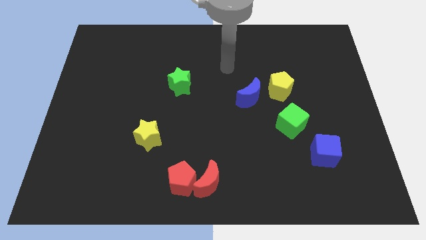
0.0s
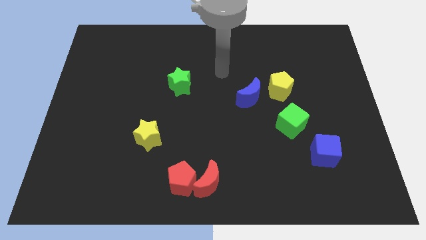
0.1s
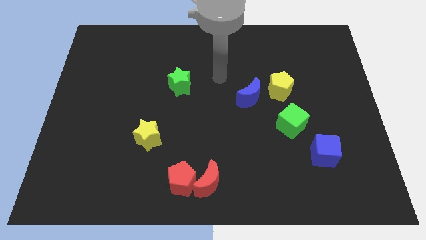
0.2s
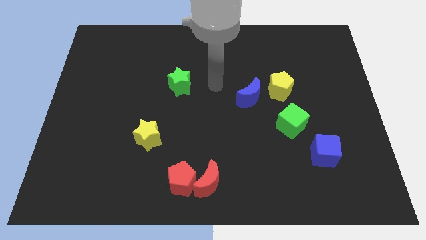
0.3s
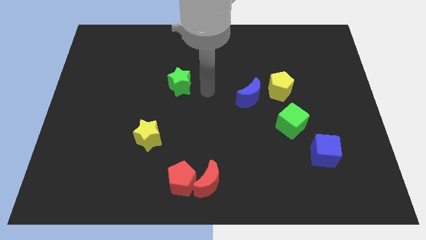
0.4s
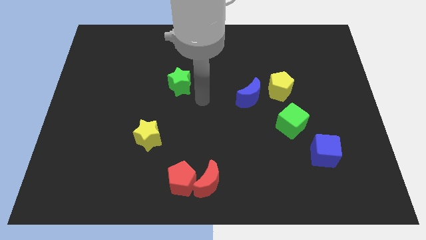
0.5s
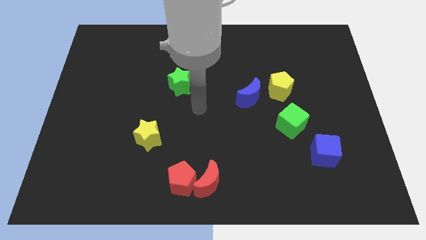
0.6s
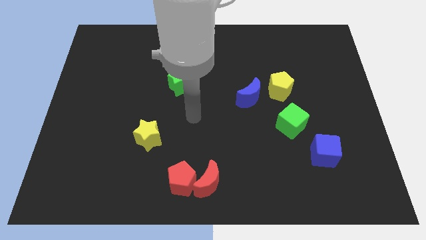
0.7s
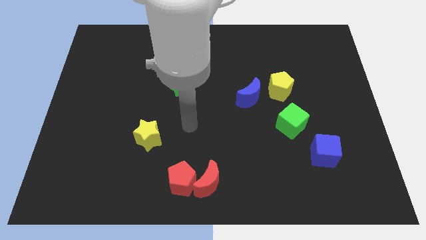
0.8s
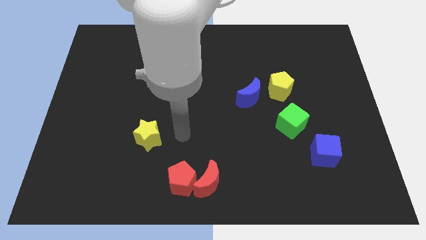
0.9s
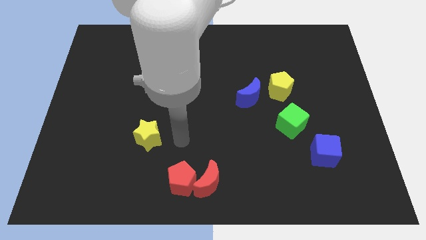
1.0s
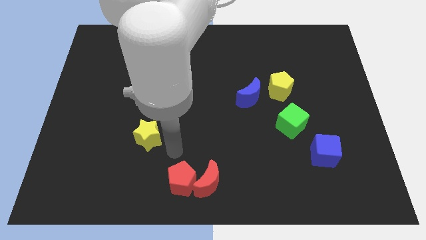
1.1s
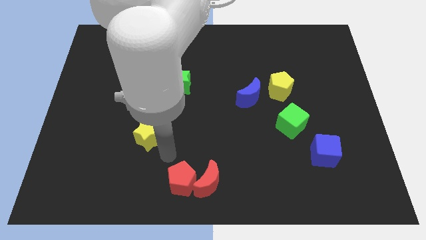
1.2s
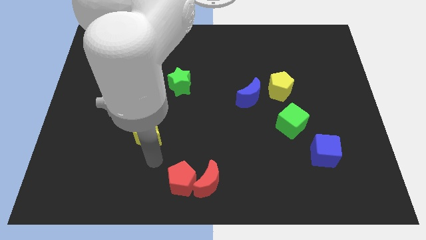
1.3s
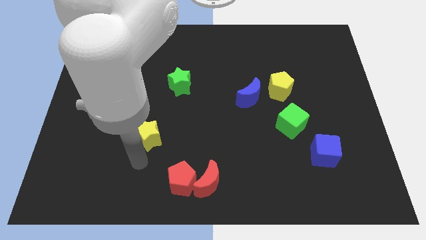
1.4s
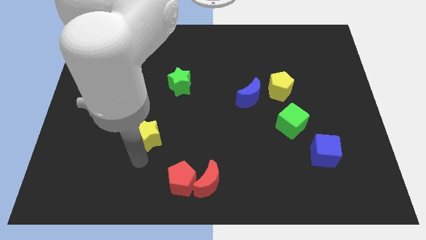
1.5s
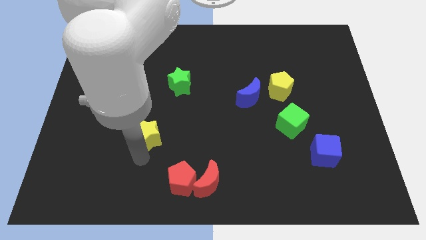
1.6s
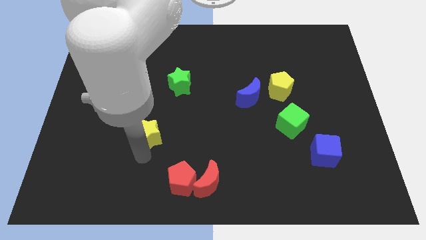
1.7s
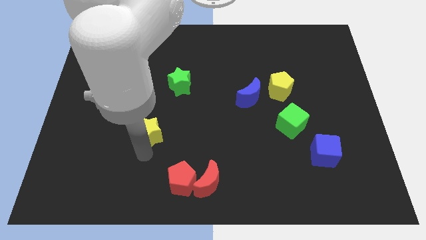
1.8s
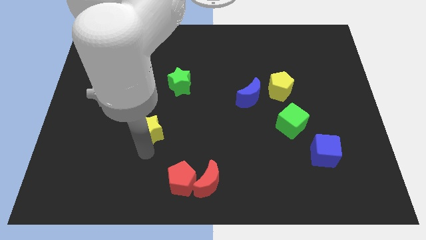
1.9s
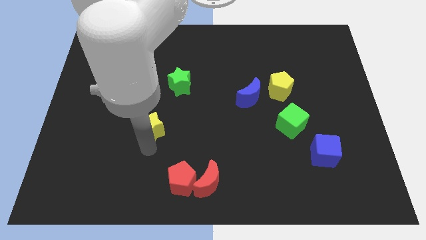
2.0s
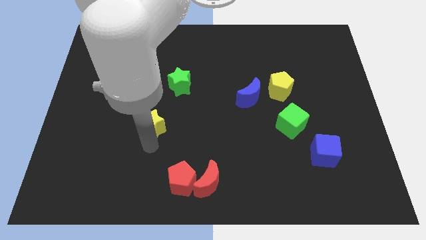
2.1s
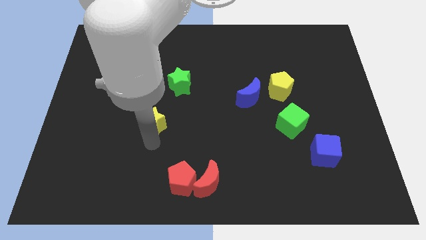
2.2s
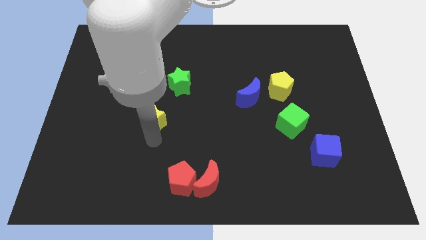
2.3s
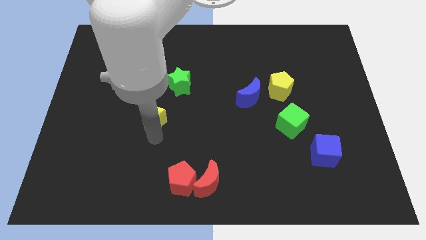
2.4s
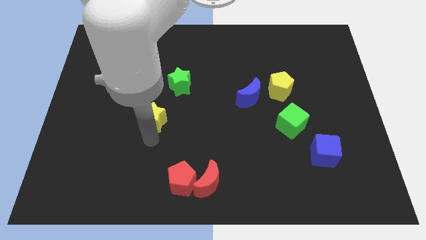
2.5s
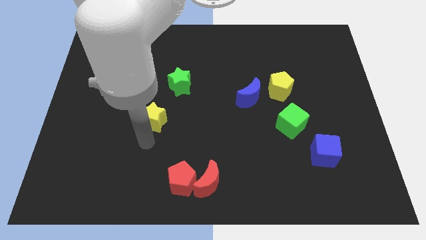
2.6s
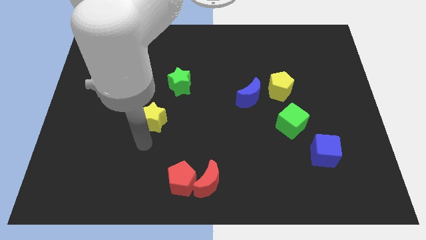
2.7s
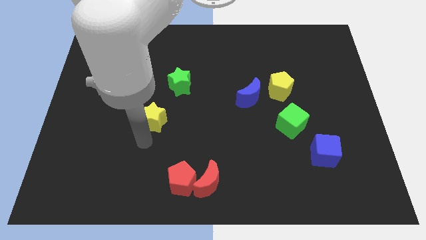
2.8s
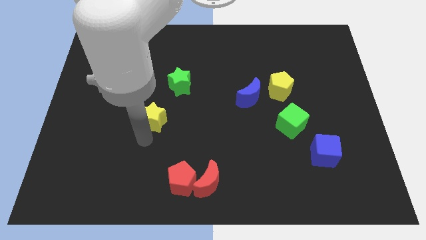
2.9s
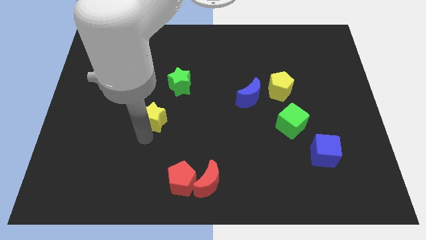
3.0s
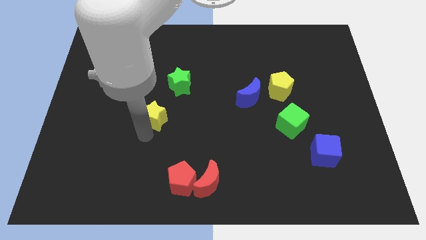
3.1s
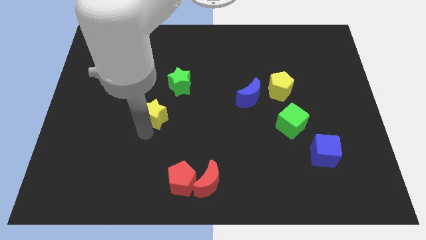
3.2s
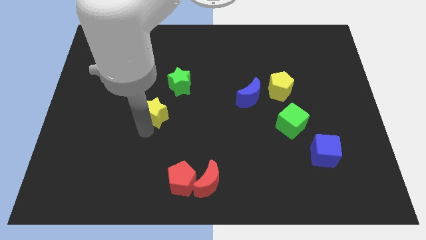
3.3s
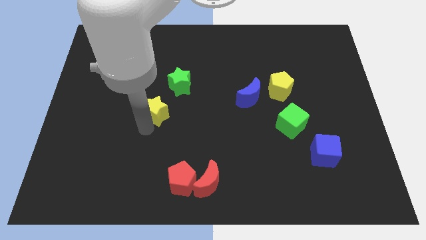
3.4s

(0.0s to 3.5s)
slightly slide the yellow star upwards

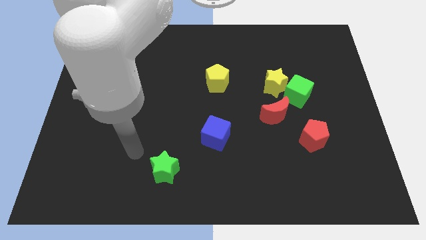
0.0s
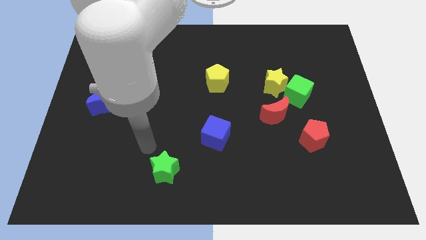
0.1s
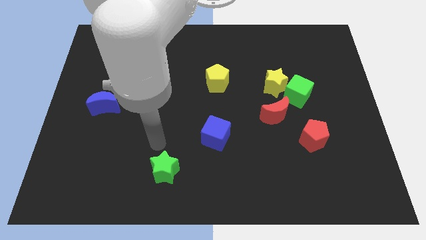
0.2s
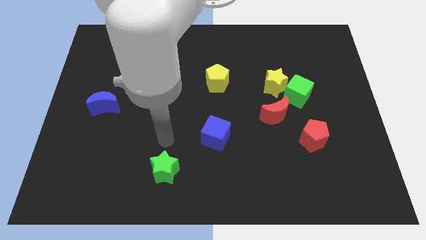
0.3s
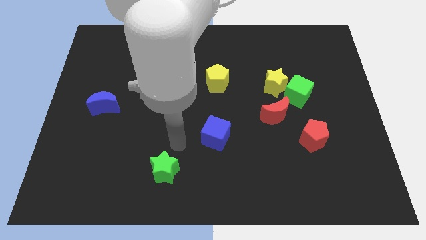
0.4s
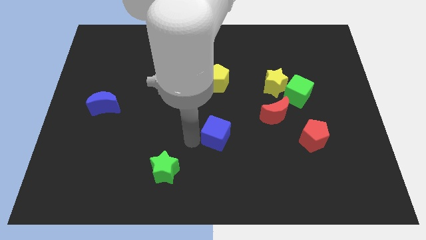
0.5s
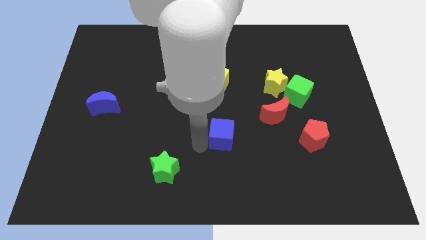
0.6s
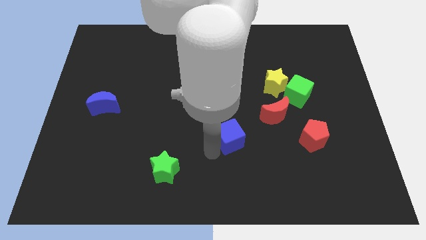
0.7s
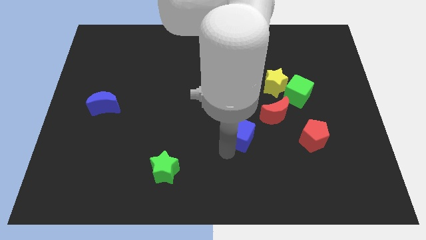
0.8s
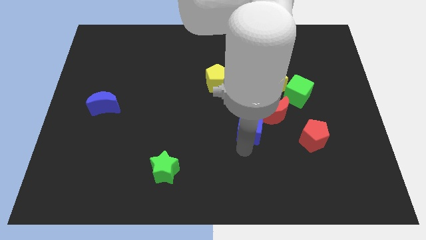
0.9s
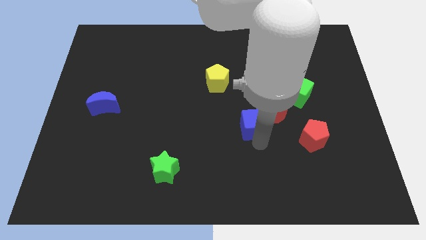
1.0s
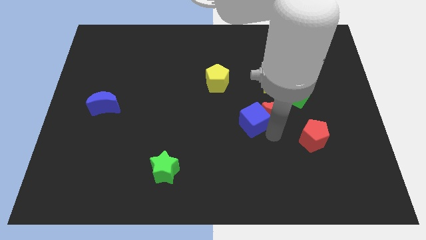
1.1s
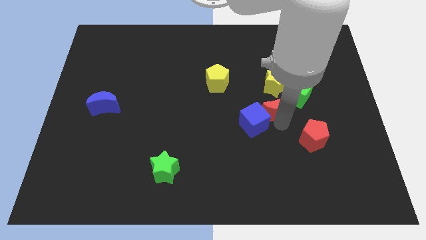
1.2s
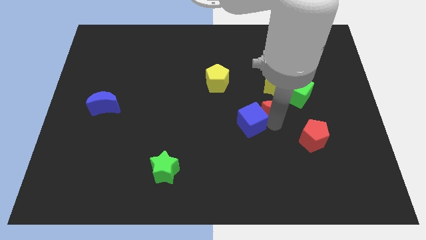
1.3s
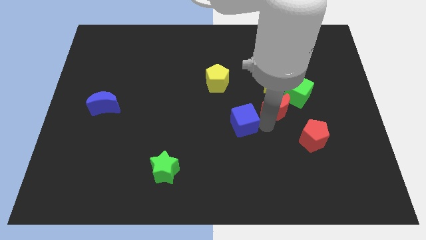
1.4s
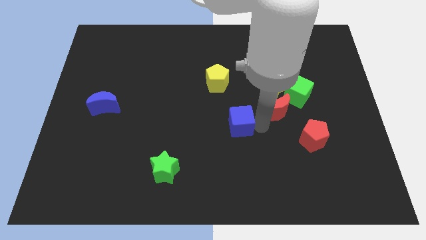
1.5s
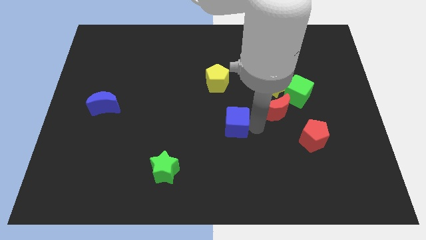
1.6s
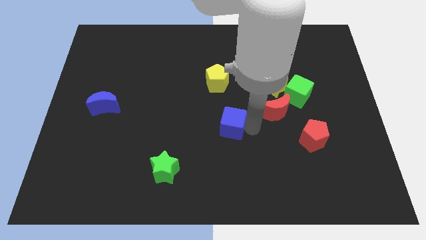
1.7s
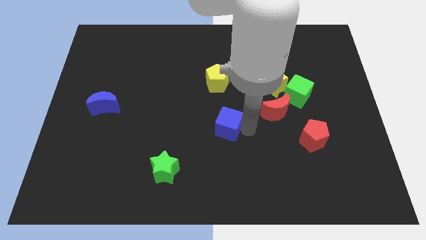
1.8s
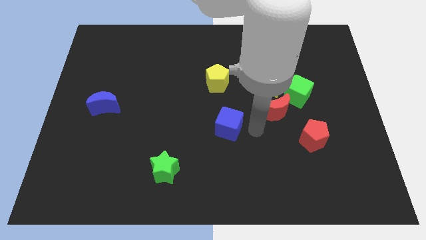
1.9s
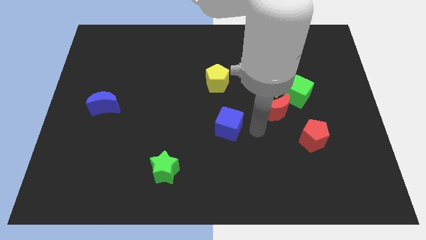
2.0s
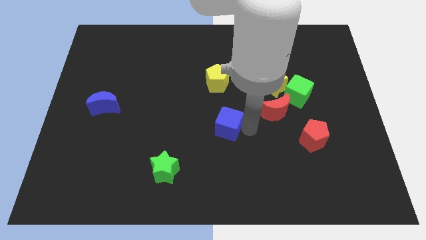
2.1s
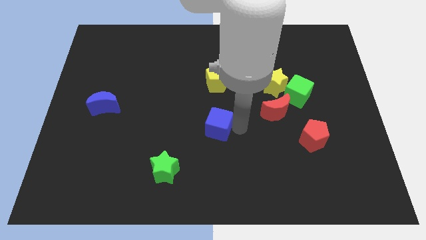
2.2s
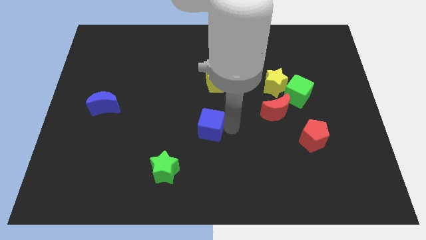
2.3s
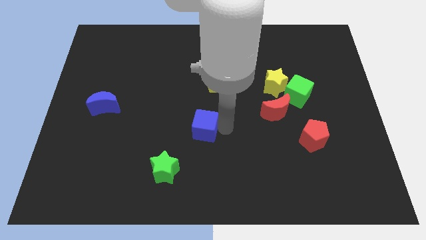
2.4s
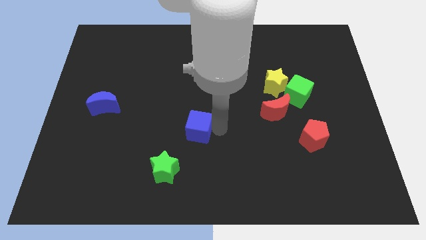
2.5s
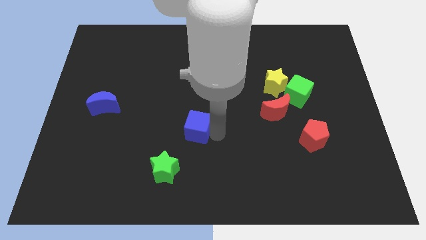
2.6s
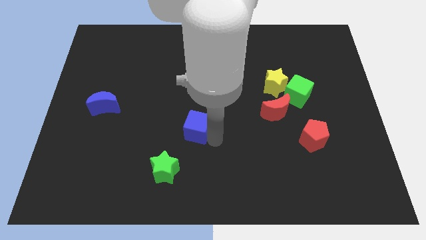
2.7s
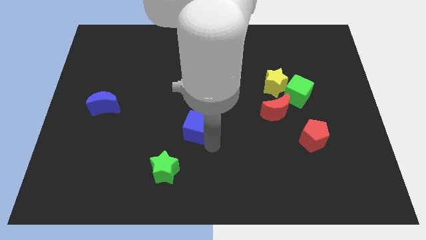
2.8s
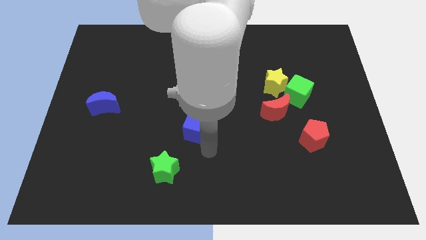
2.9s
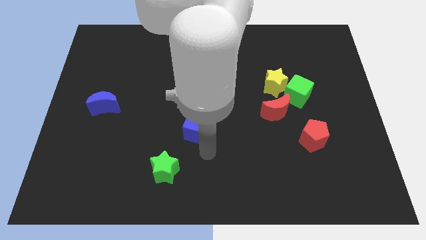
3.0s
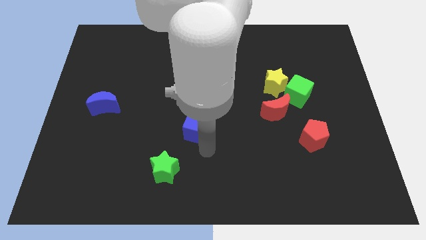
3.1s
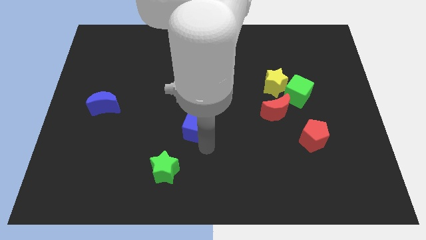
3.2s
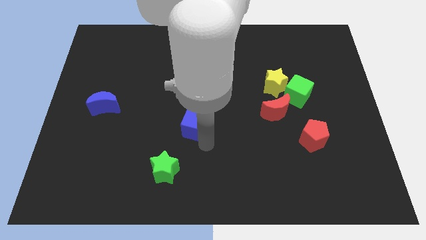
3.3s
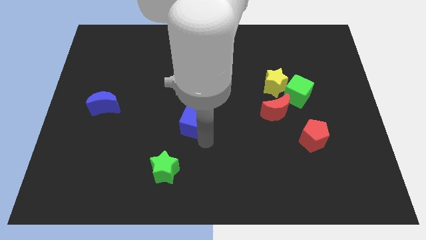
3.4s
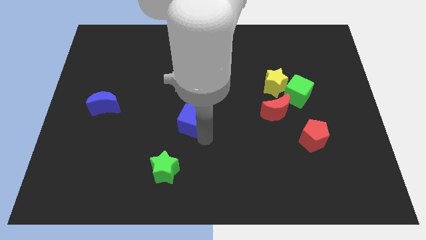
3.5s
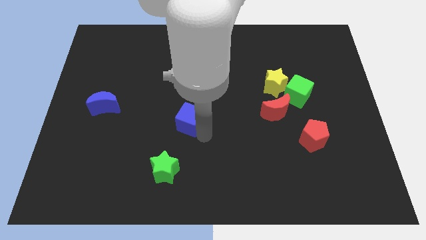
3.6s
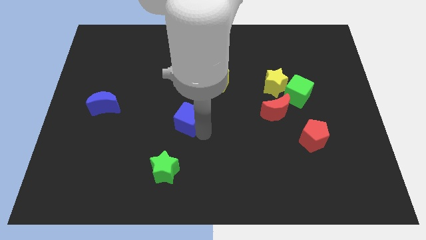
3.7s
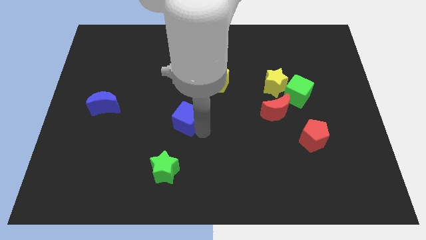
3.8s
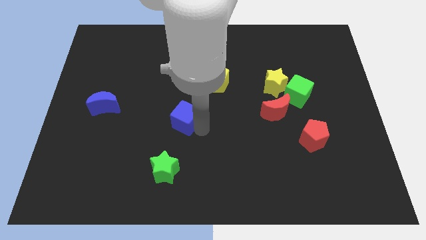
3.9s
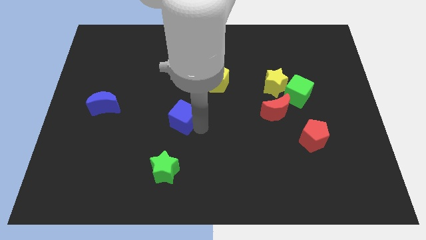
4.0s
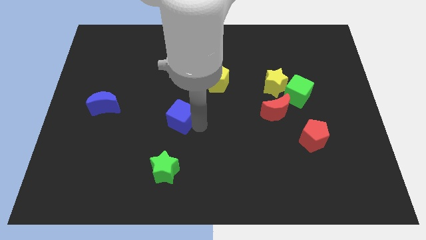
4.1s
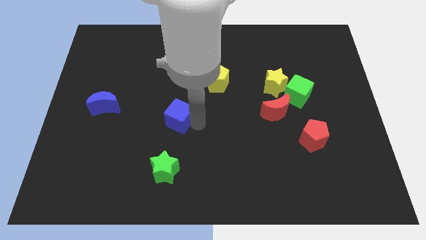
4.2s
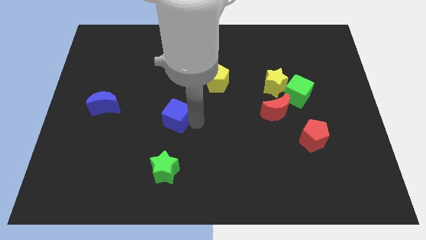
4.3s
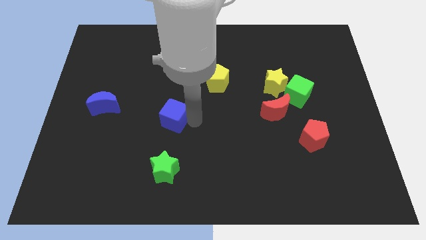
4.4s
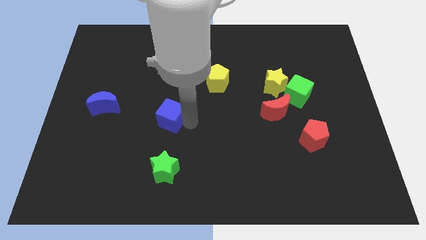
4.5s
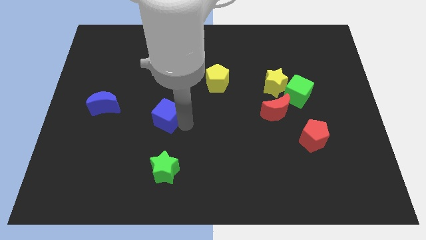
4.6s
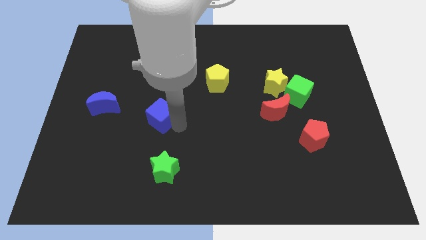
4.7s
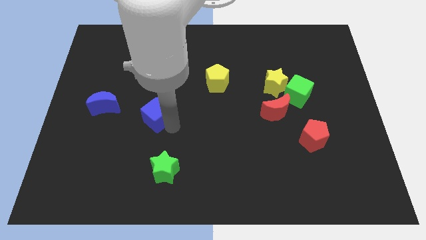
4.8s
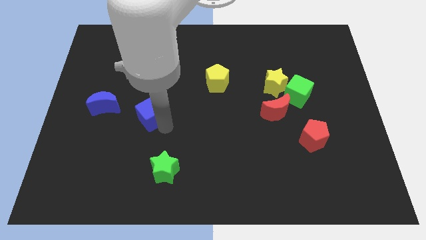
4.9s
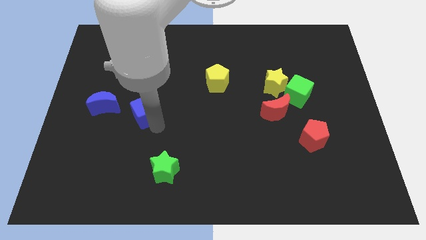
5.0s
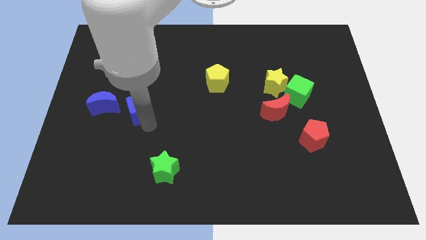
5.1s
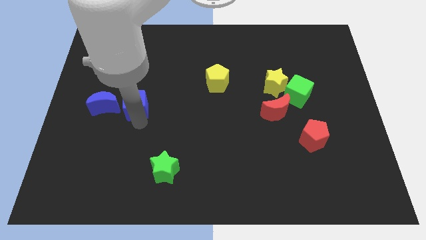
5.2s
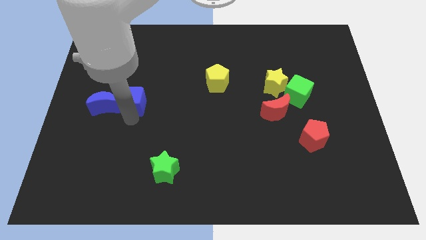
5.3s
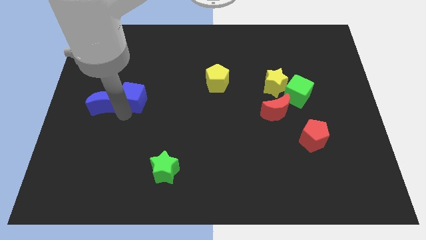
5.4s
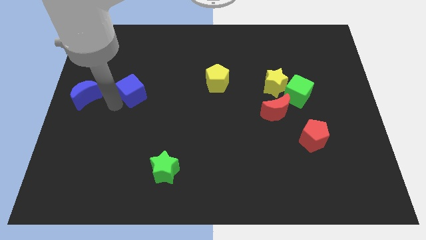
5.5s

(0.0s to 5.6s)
slide the blue cube up and then to the left
